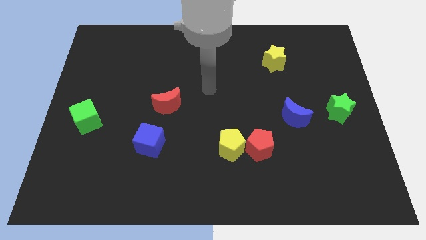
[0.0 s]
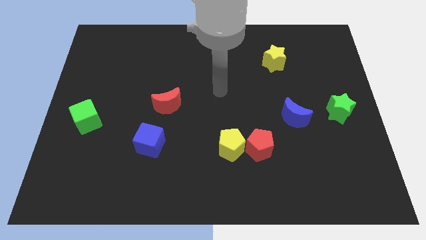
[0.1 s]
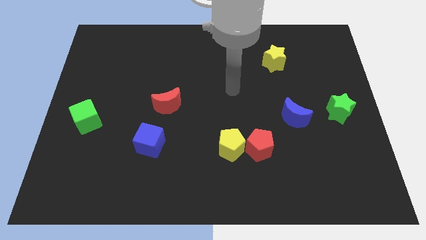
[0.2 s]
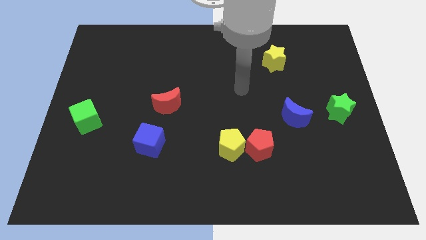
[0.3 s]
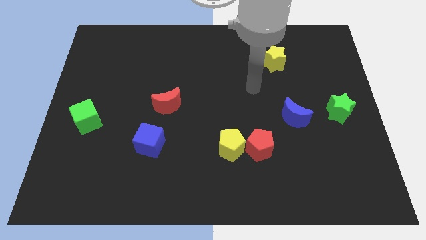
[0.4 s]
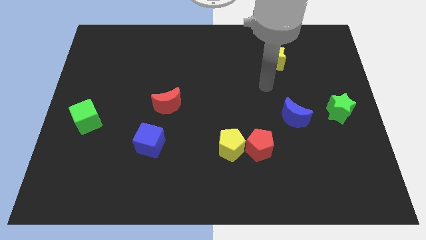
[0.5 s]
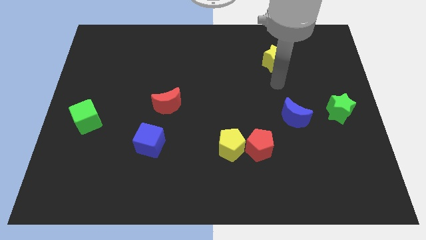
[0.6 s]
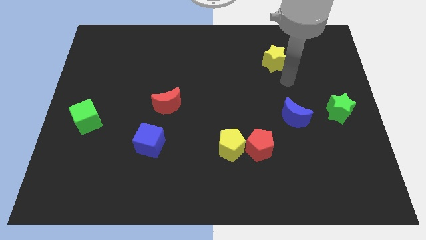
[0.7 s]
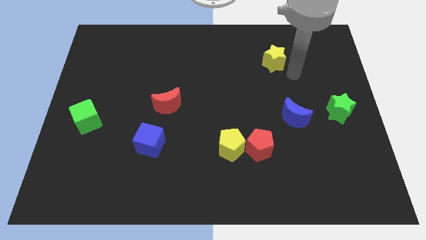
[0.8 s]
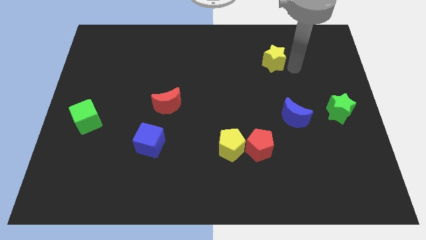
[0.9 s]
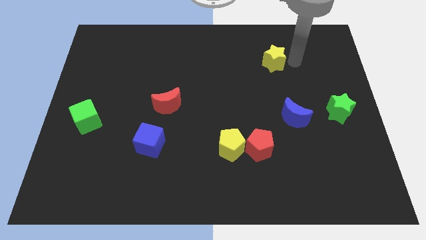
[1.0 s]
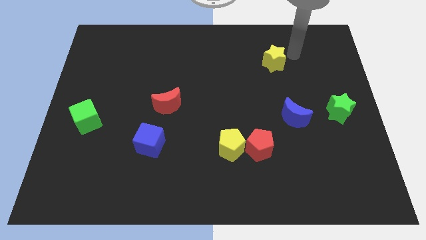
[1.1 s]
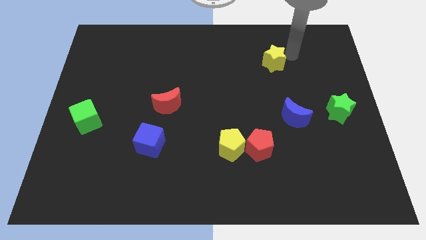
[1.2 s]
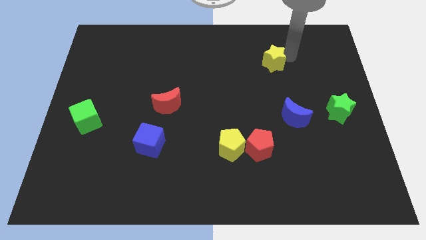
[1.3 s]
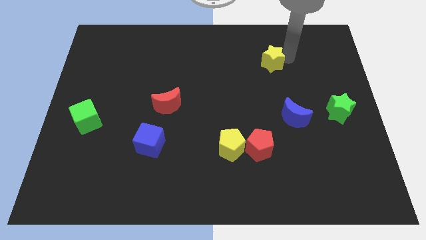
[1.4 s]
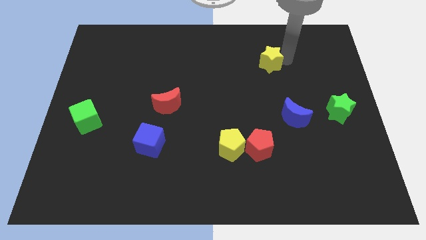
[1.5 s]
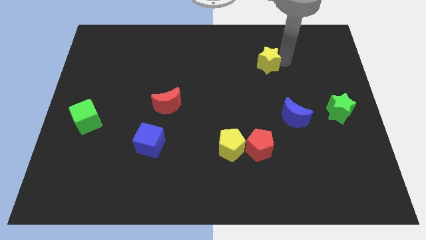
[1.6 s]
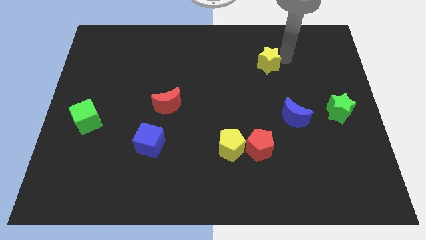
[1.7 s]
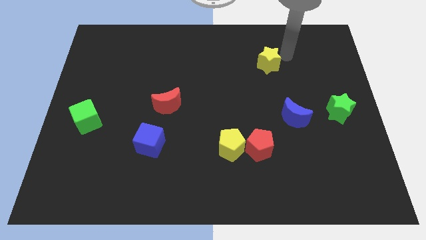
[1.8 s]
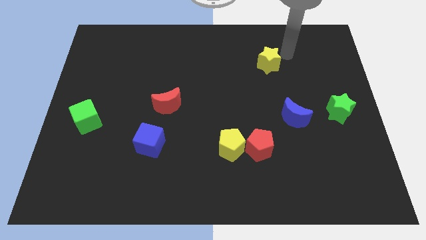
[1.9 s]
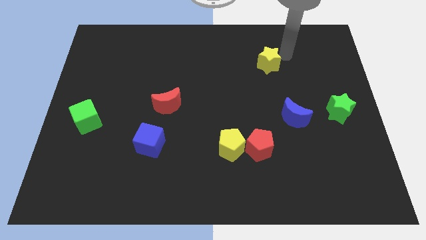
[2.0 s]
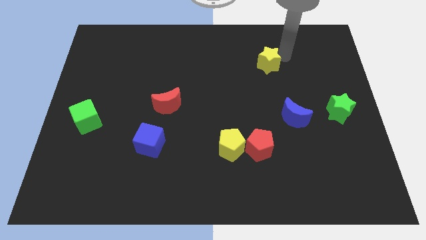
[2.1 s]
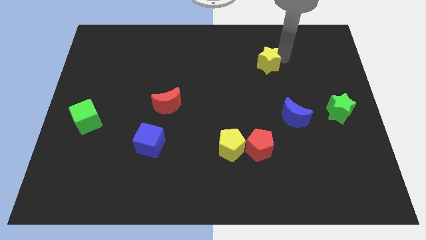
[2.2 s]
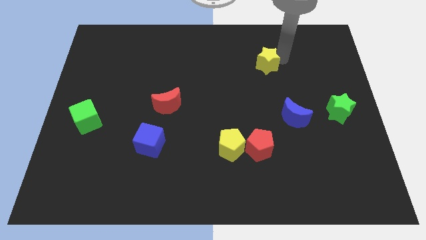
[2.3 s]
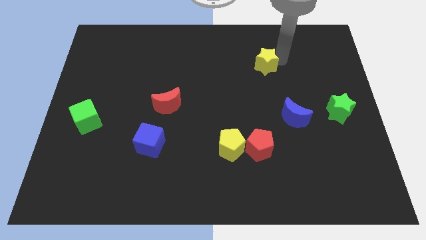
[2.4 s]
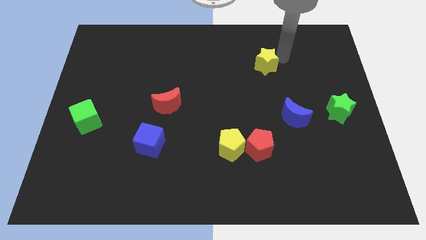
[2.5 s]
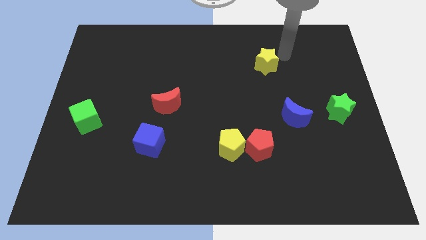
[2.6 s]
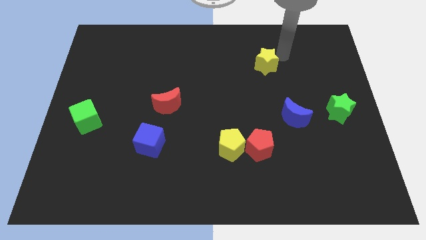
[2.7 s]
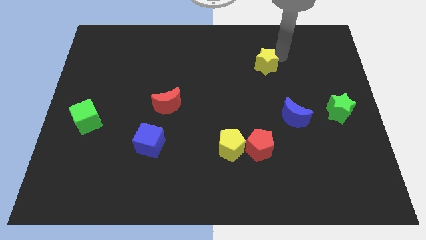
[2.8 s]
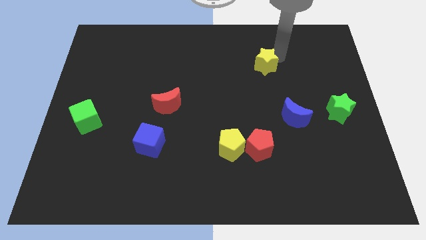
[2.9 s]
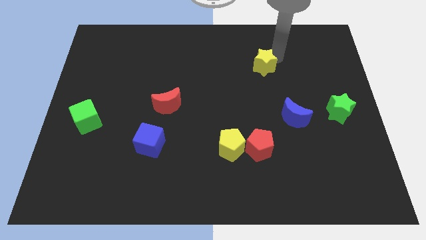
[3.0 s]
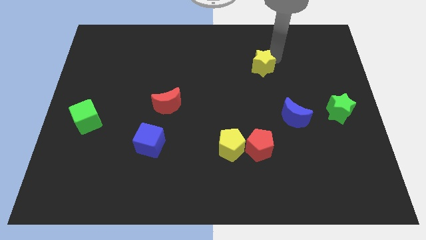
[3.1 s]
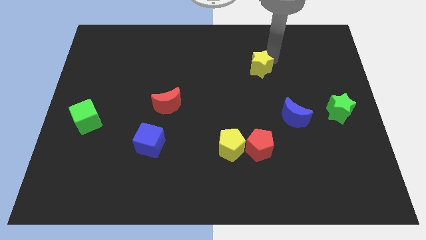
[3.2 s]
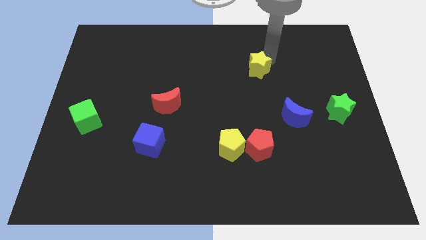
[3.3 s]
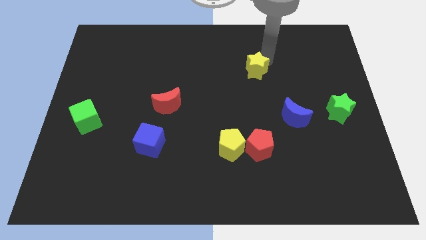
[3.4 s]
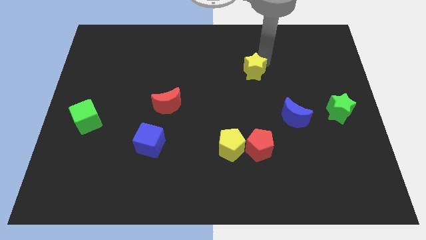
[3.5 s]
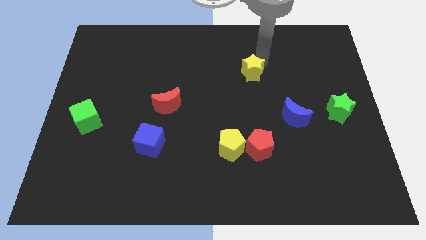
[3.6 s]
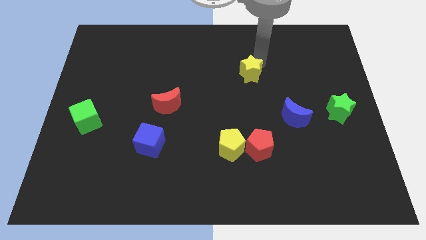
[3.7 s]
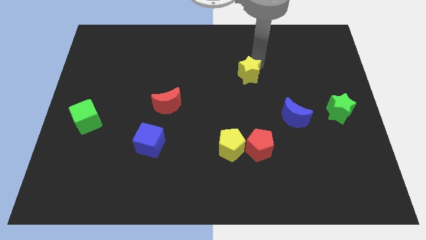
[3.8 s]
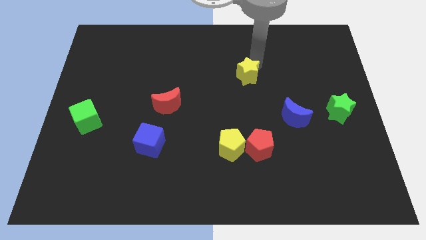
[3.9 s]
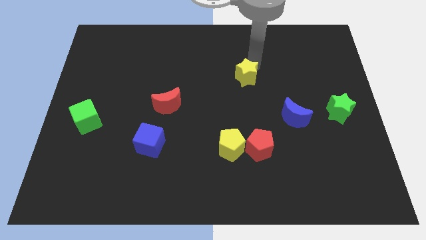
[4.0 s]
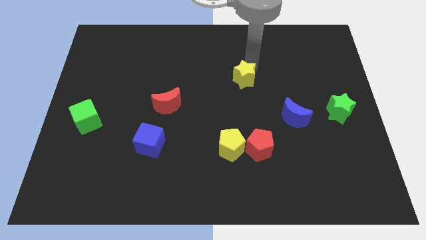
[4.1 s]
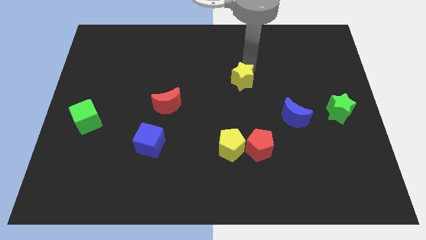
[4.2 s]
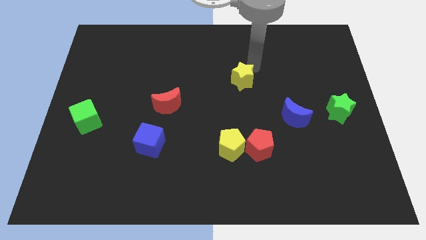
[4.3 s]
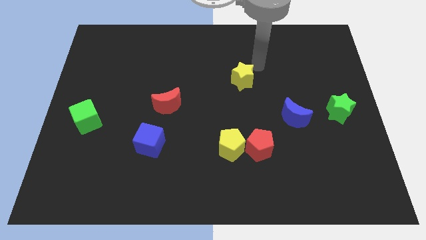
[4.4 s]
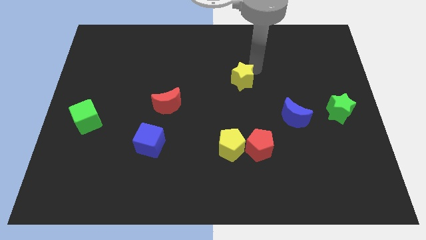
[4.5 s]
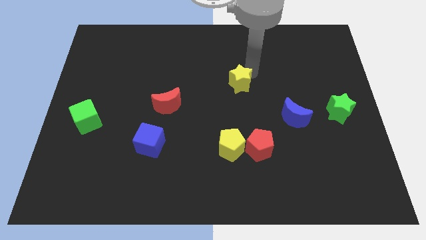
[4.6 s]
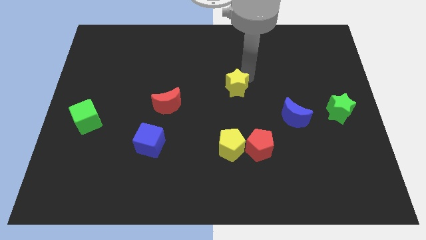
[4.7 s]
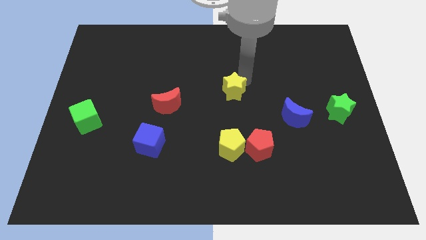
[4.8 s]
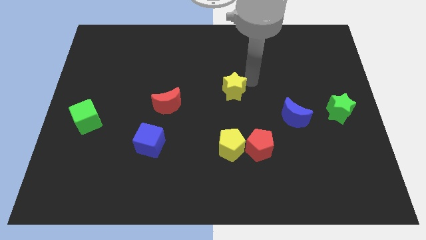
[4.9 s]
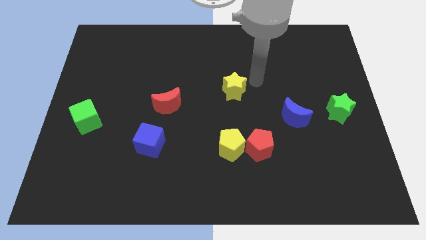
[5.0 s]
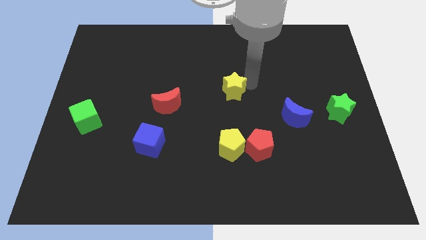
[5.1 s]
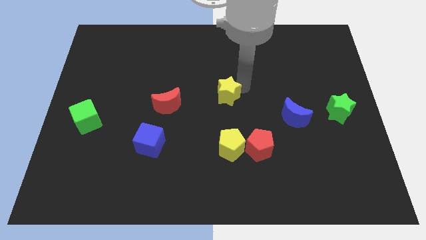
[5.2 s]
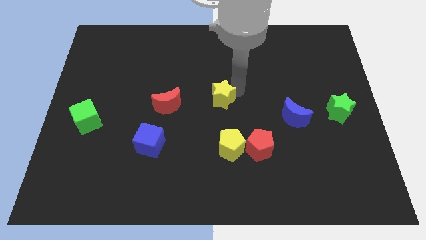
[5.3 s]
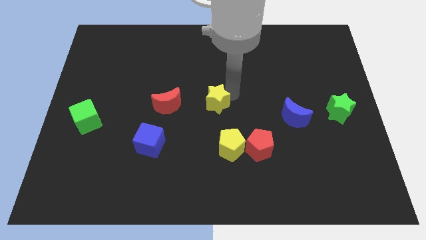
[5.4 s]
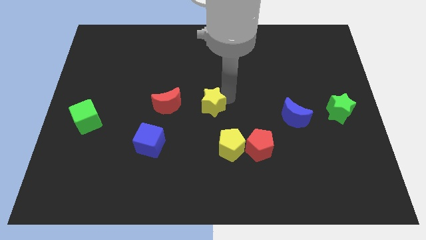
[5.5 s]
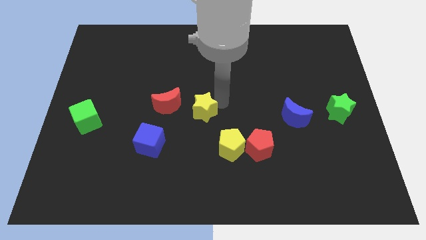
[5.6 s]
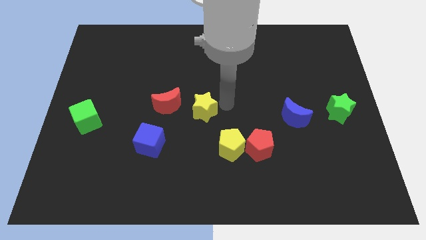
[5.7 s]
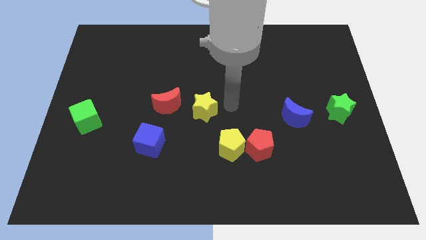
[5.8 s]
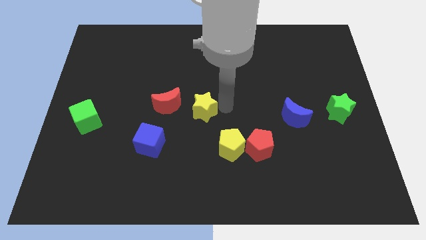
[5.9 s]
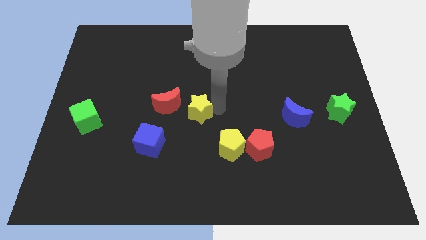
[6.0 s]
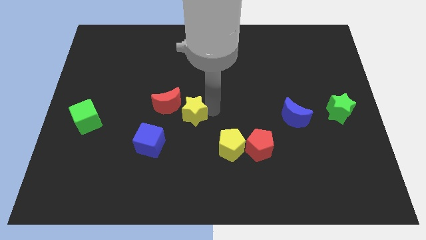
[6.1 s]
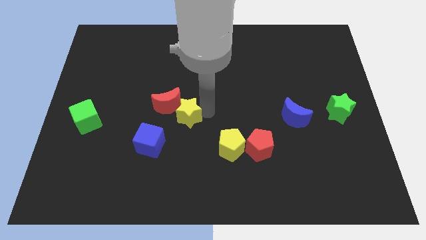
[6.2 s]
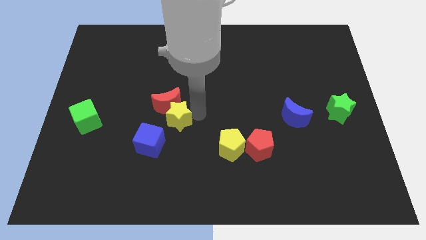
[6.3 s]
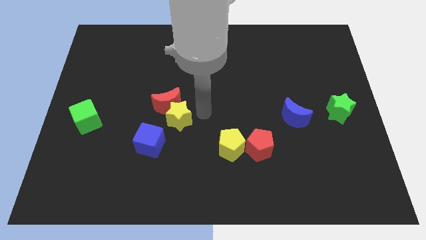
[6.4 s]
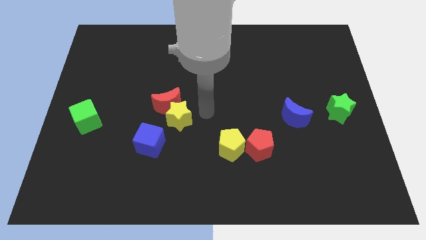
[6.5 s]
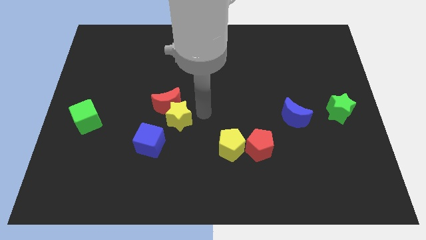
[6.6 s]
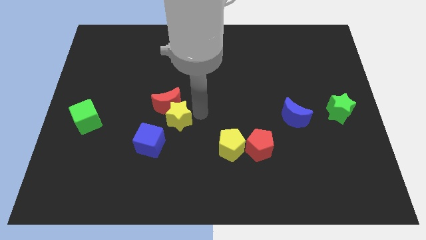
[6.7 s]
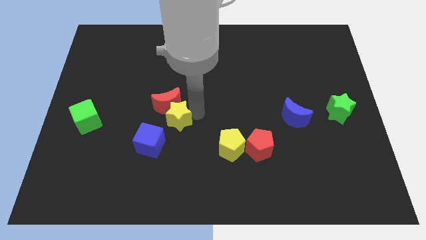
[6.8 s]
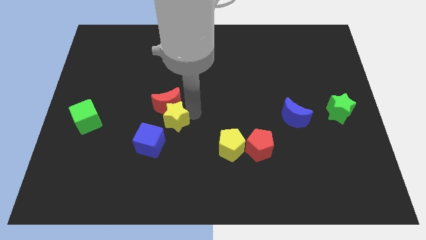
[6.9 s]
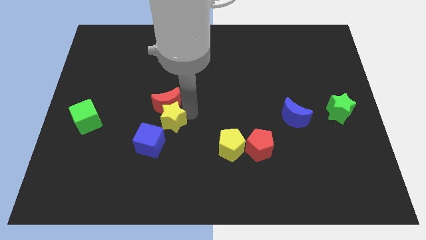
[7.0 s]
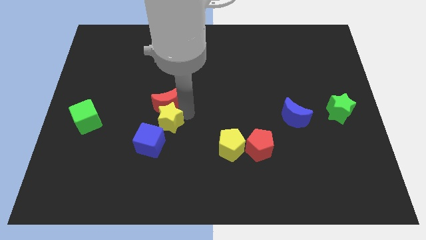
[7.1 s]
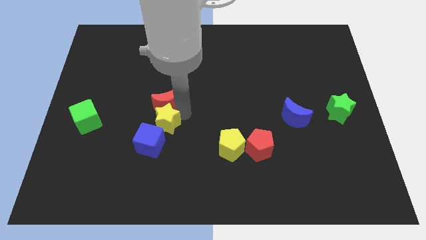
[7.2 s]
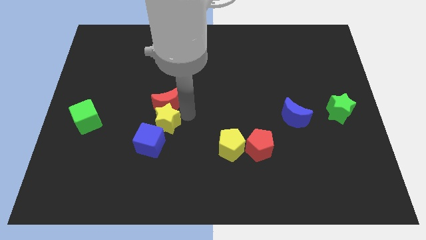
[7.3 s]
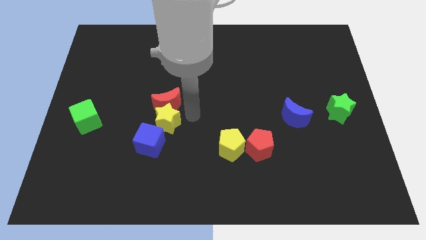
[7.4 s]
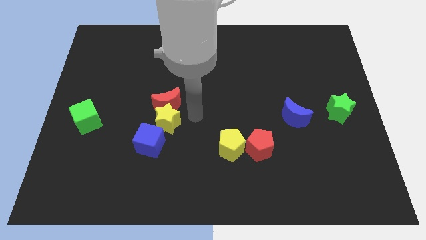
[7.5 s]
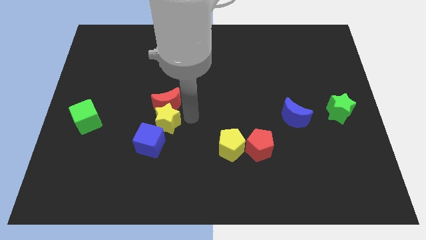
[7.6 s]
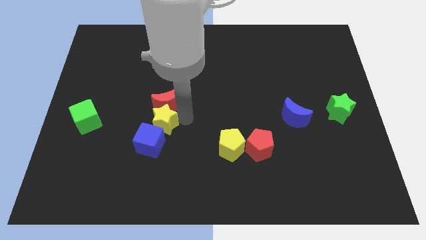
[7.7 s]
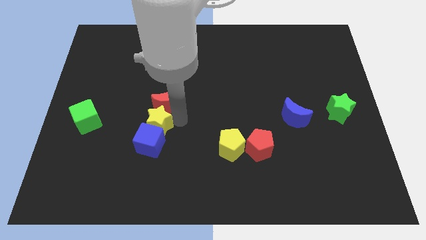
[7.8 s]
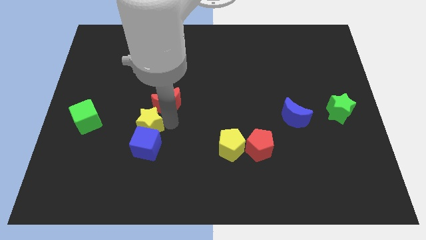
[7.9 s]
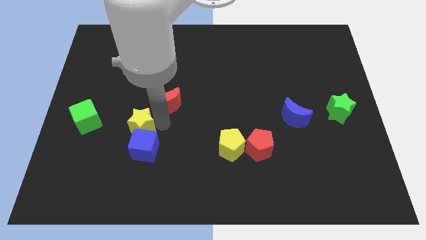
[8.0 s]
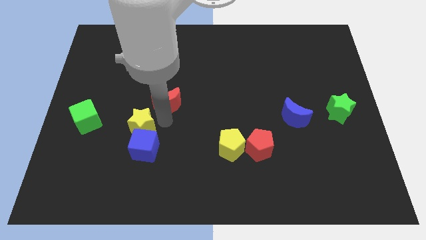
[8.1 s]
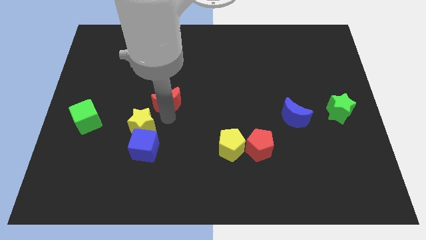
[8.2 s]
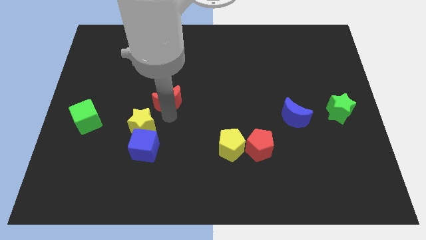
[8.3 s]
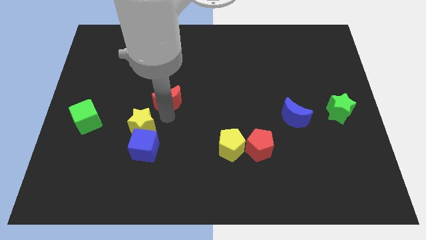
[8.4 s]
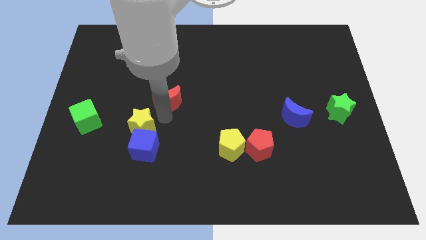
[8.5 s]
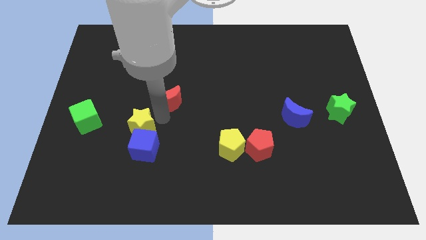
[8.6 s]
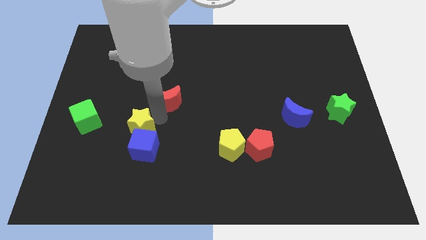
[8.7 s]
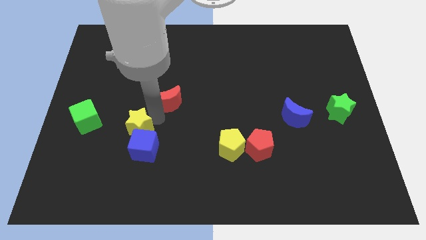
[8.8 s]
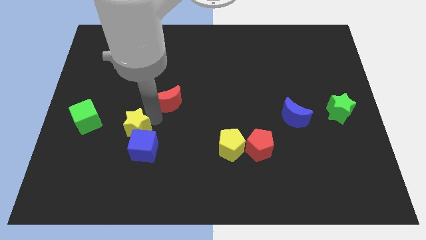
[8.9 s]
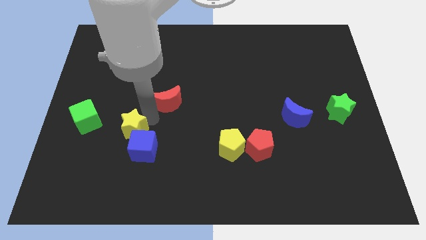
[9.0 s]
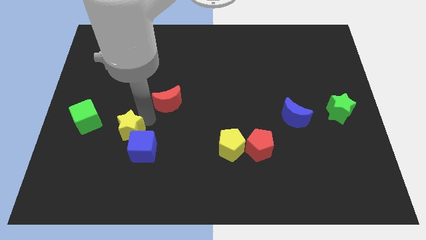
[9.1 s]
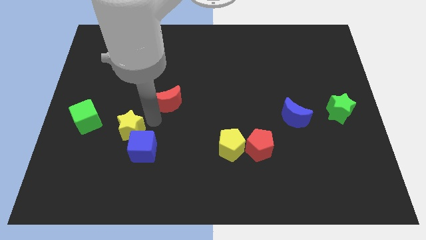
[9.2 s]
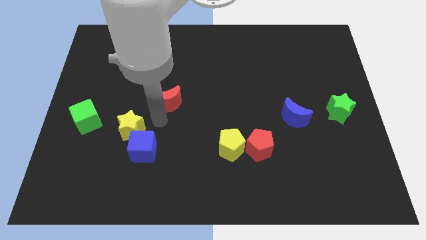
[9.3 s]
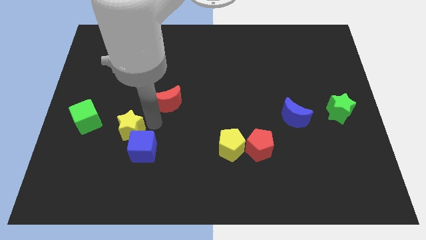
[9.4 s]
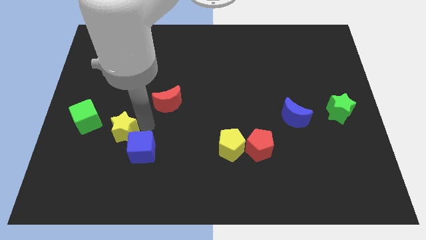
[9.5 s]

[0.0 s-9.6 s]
slide the yellow star to the bottom right side of the green cube
